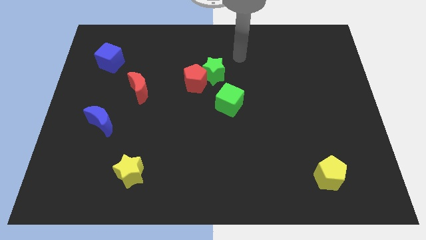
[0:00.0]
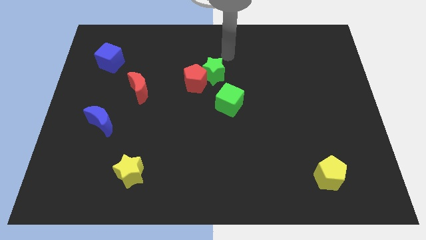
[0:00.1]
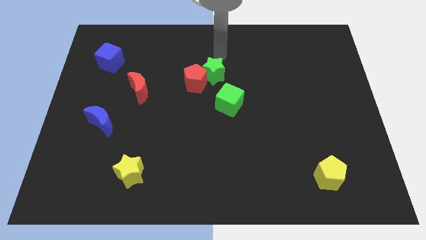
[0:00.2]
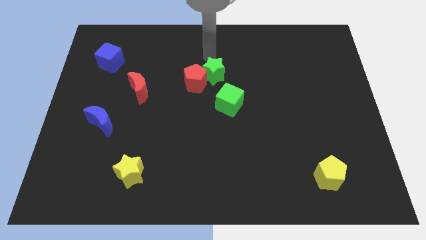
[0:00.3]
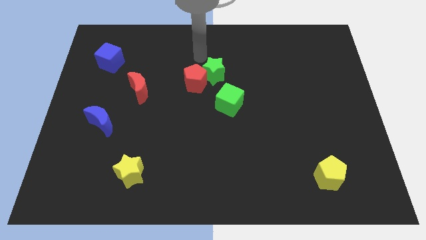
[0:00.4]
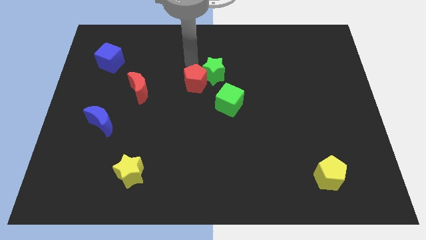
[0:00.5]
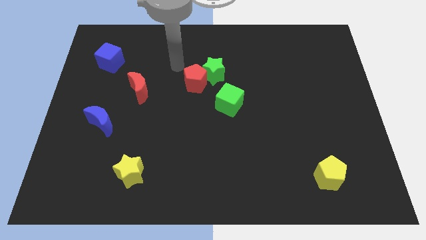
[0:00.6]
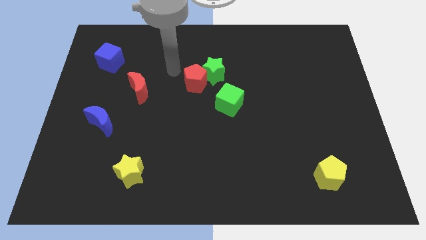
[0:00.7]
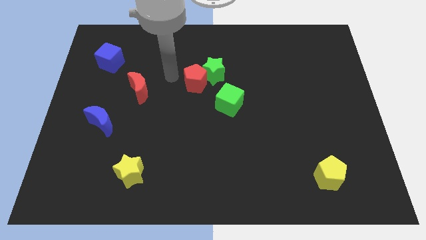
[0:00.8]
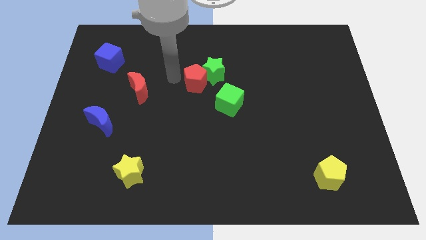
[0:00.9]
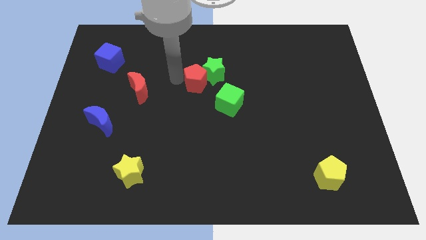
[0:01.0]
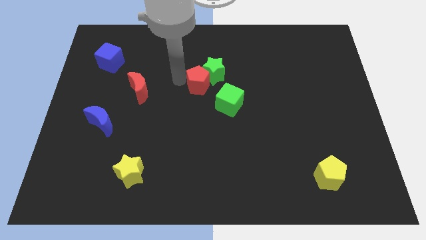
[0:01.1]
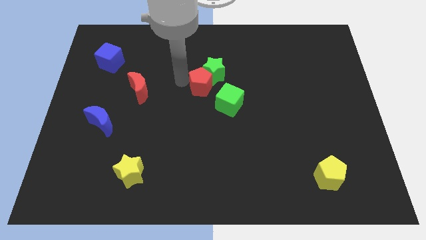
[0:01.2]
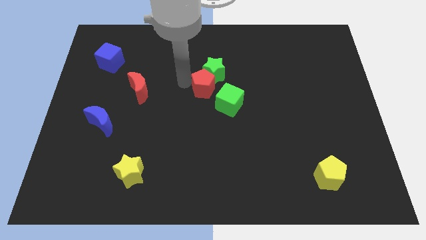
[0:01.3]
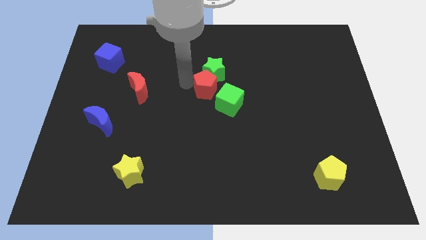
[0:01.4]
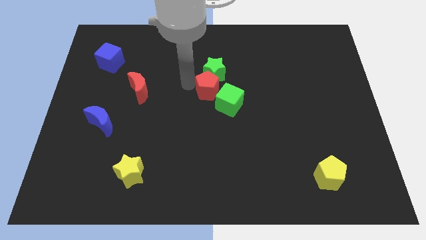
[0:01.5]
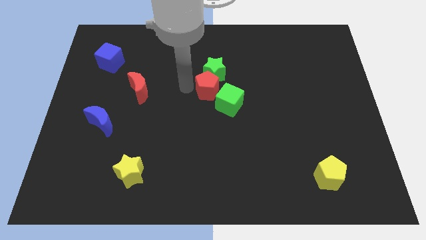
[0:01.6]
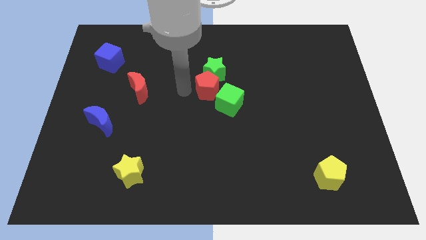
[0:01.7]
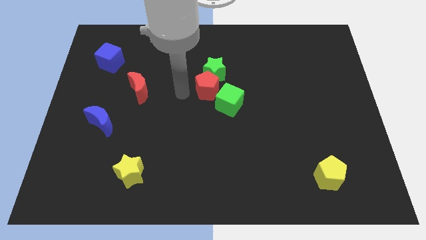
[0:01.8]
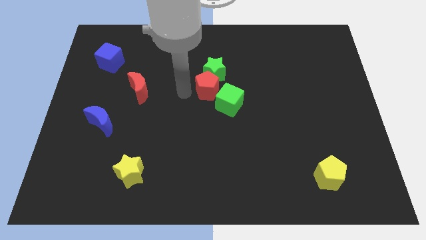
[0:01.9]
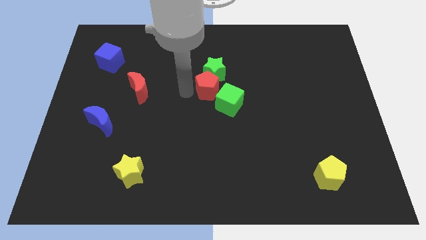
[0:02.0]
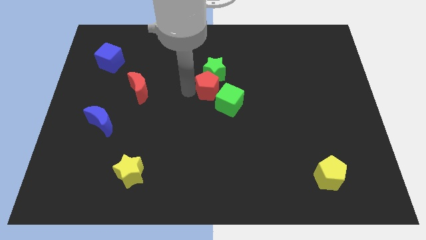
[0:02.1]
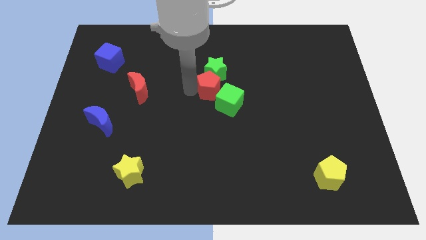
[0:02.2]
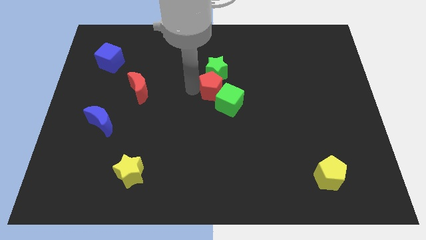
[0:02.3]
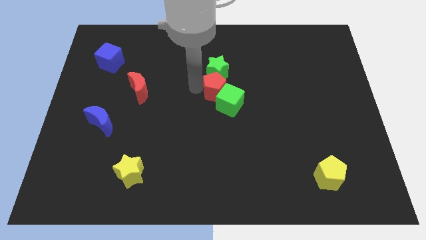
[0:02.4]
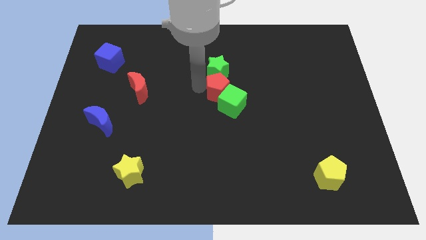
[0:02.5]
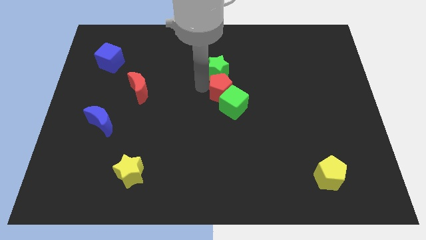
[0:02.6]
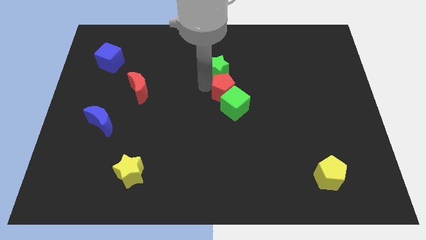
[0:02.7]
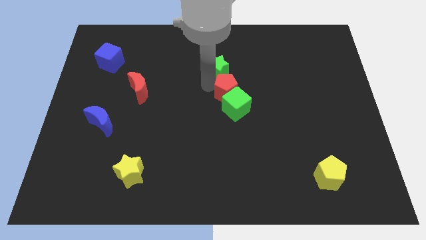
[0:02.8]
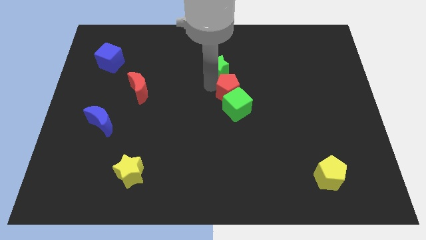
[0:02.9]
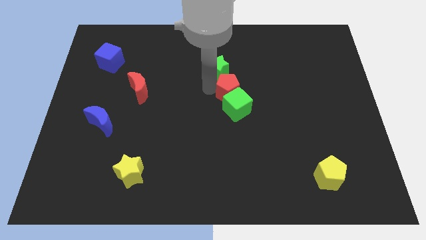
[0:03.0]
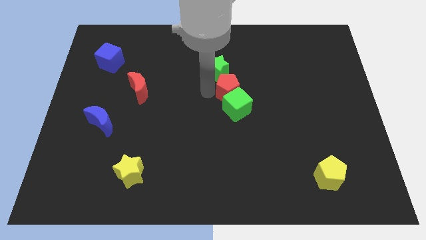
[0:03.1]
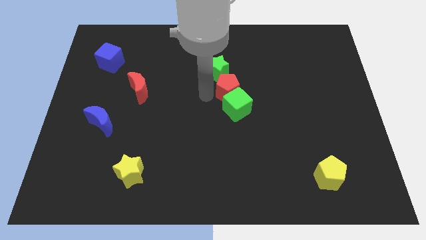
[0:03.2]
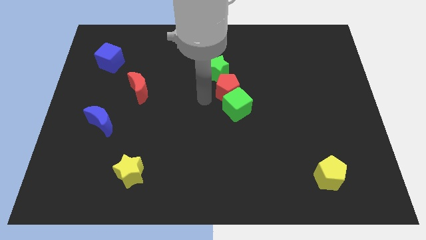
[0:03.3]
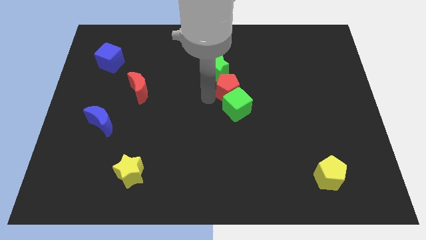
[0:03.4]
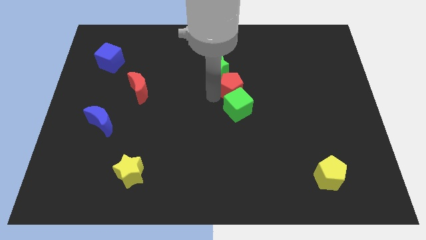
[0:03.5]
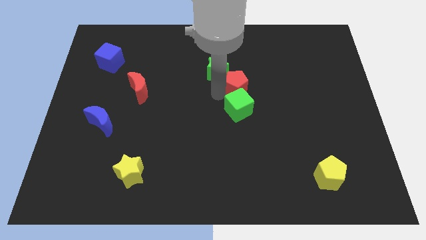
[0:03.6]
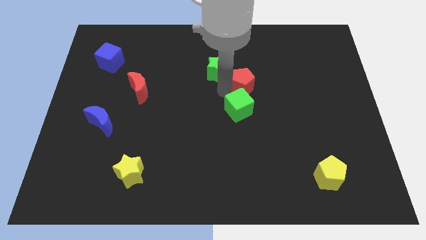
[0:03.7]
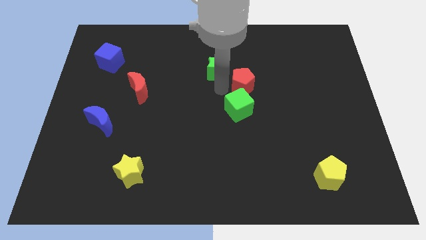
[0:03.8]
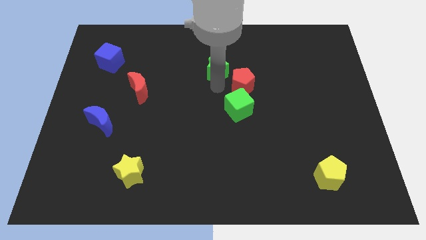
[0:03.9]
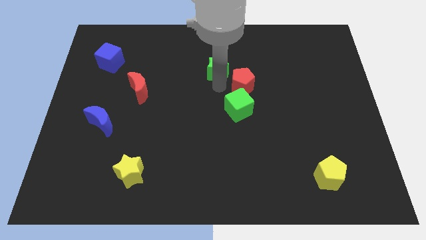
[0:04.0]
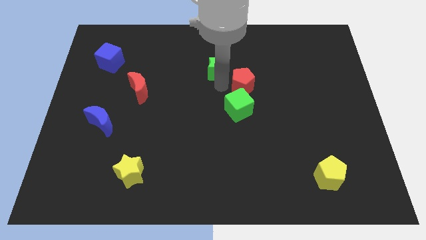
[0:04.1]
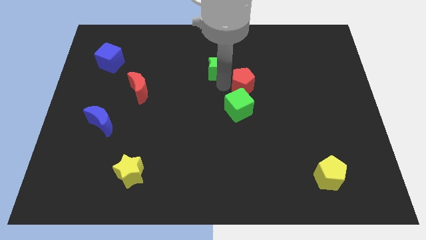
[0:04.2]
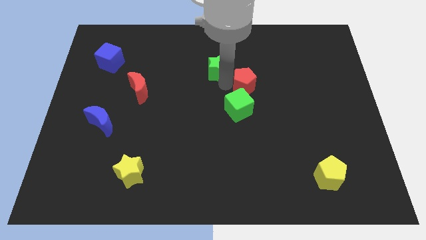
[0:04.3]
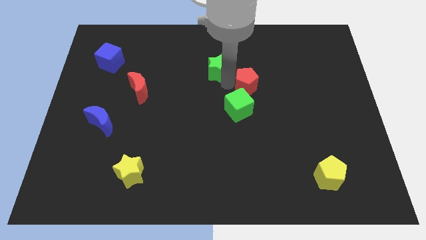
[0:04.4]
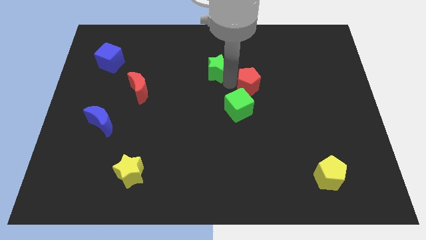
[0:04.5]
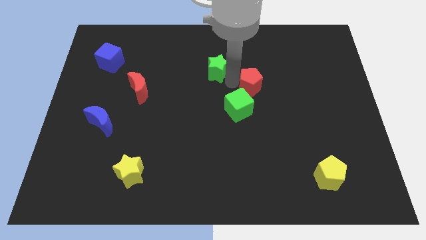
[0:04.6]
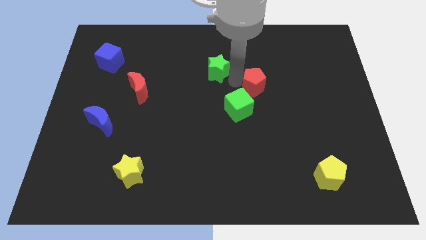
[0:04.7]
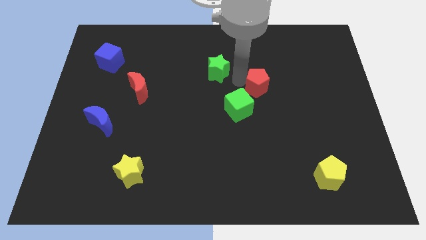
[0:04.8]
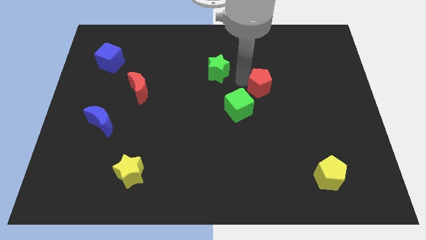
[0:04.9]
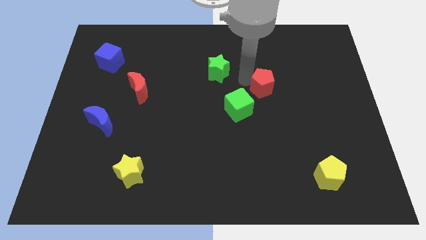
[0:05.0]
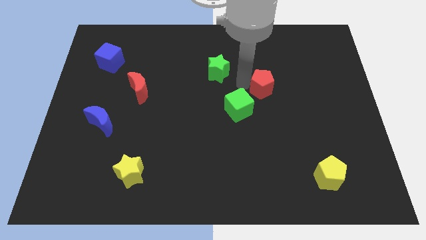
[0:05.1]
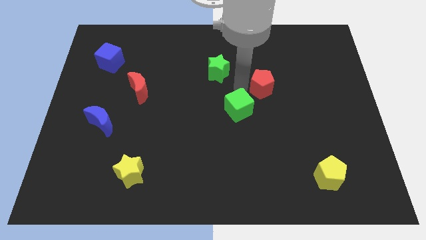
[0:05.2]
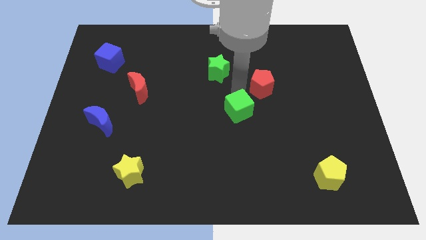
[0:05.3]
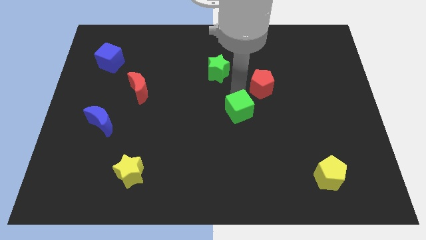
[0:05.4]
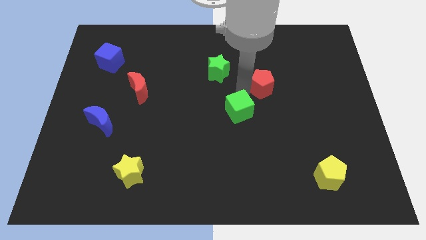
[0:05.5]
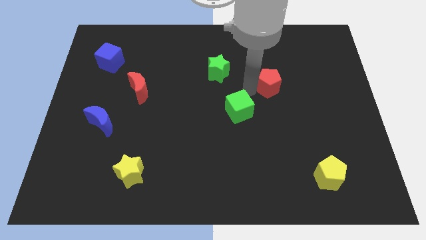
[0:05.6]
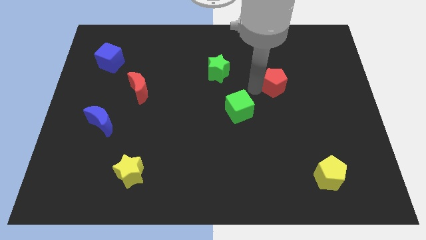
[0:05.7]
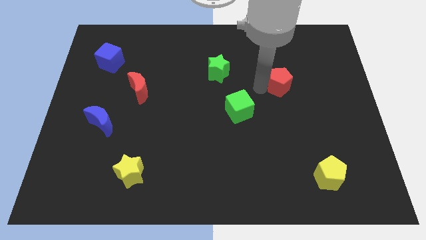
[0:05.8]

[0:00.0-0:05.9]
push the red pentagon to the right

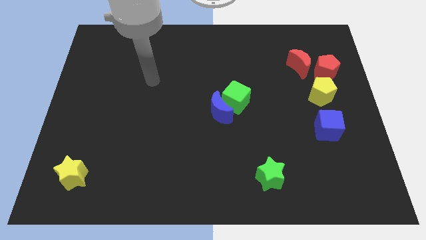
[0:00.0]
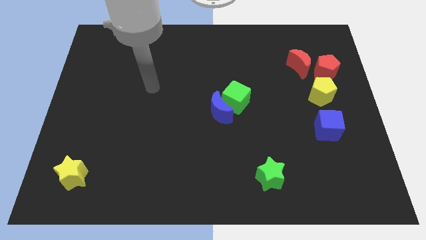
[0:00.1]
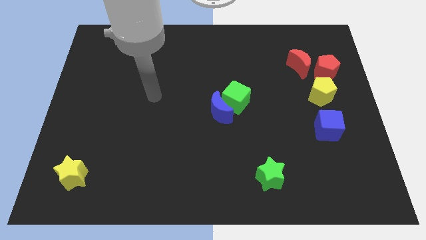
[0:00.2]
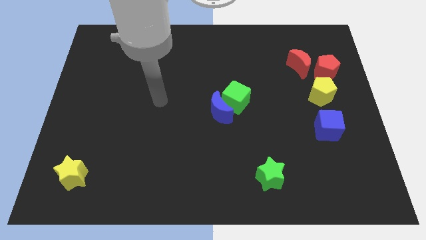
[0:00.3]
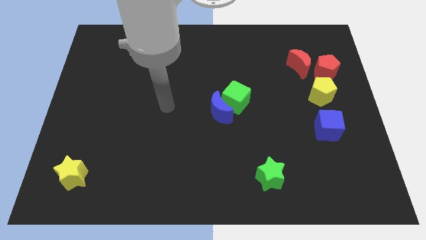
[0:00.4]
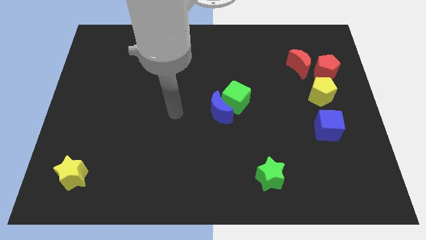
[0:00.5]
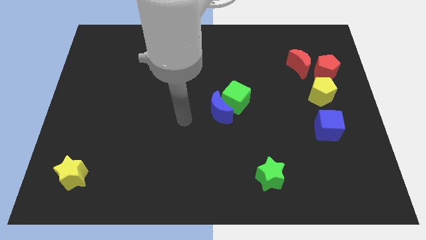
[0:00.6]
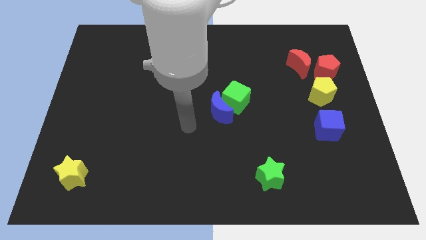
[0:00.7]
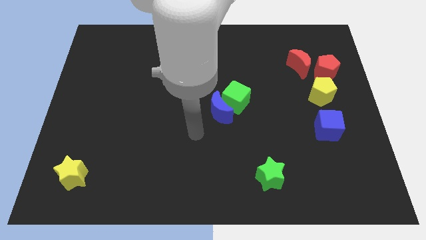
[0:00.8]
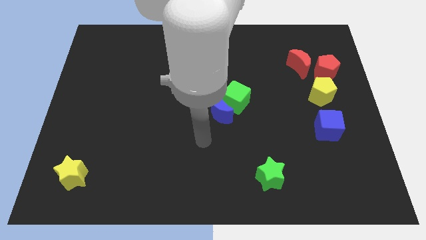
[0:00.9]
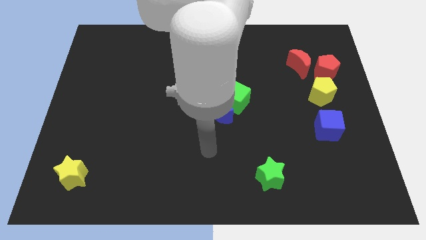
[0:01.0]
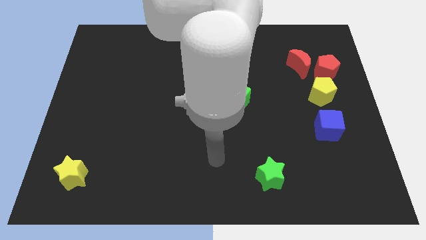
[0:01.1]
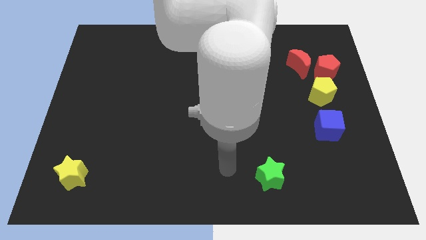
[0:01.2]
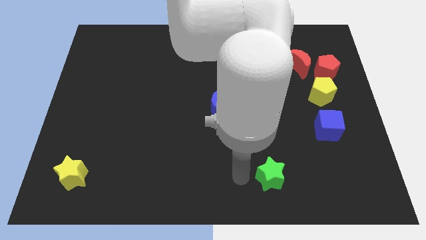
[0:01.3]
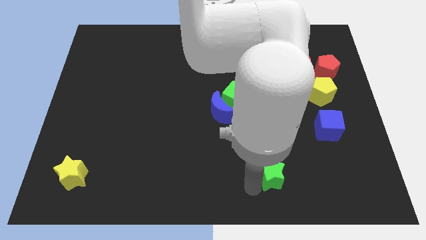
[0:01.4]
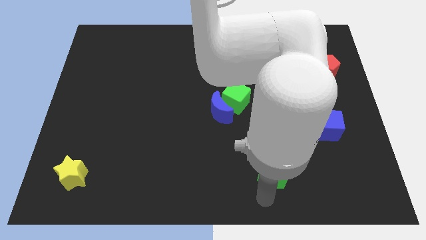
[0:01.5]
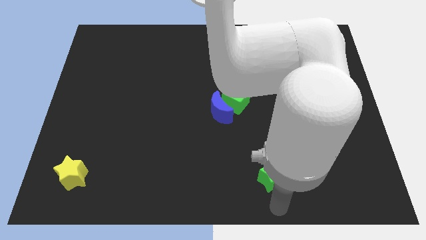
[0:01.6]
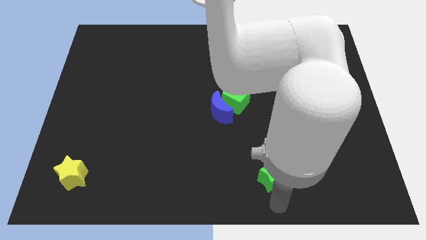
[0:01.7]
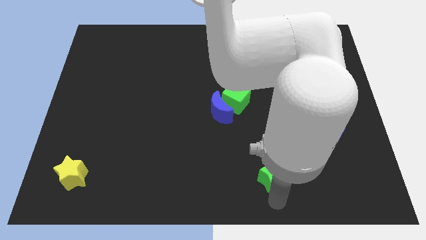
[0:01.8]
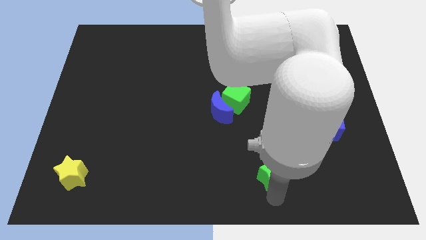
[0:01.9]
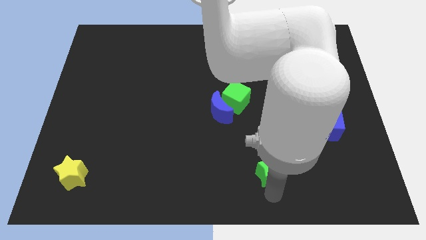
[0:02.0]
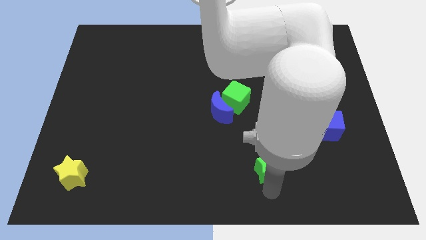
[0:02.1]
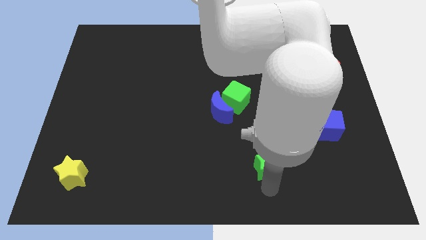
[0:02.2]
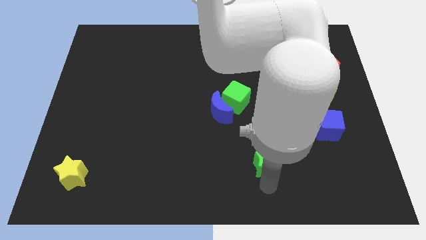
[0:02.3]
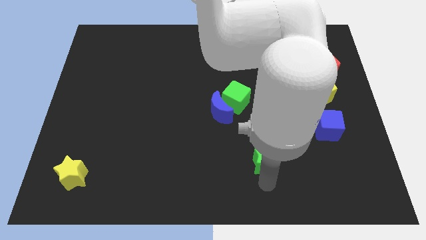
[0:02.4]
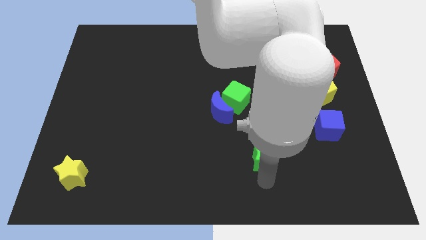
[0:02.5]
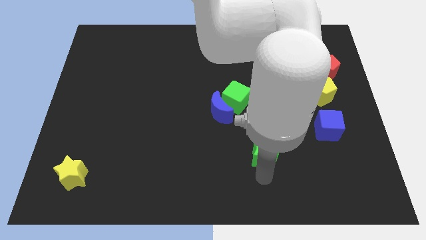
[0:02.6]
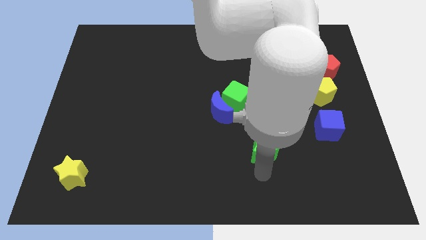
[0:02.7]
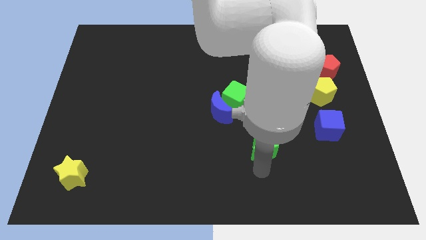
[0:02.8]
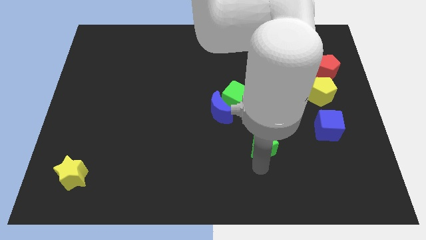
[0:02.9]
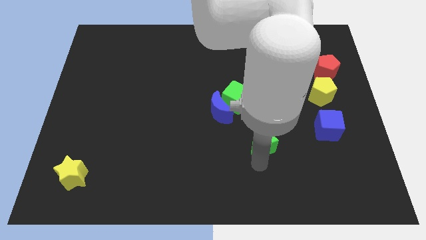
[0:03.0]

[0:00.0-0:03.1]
slightly move the green star upwards
